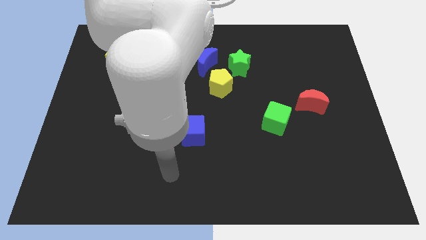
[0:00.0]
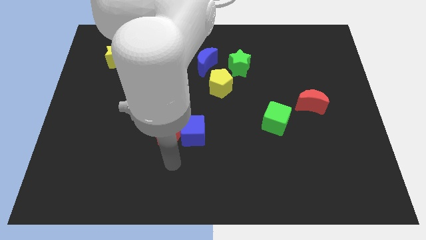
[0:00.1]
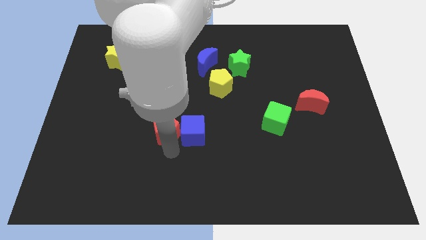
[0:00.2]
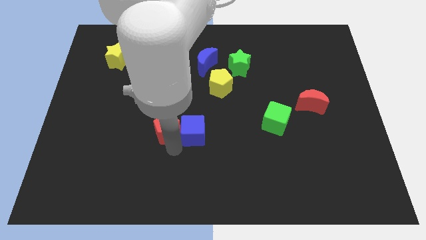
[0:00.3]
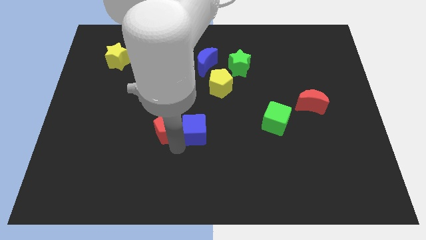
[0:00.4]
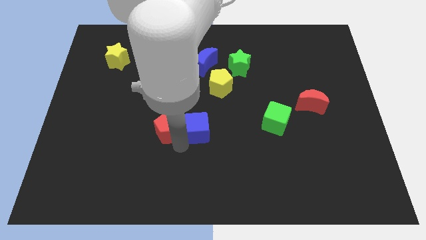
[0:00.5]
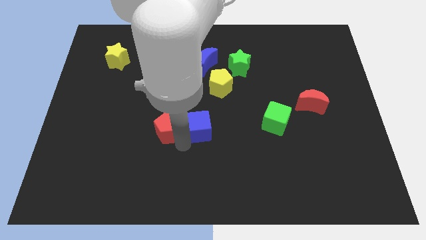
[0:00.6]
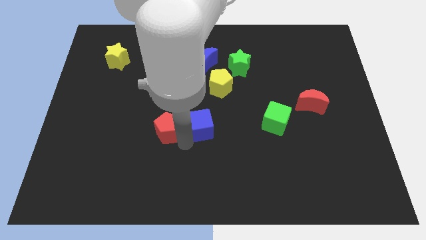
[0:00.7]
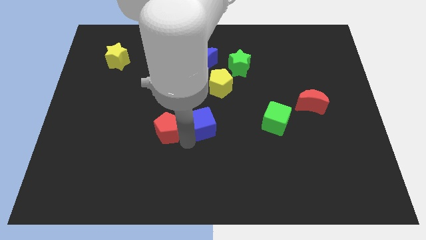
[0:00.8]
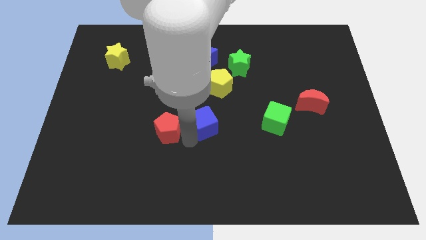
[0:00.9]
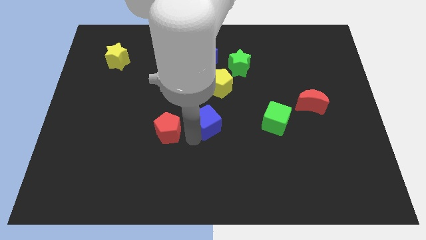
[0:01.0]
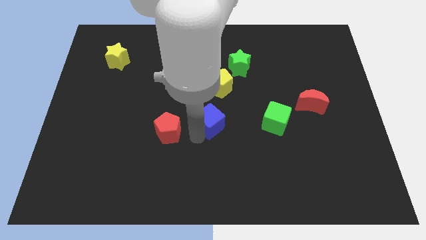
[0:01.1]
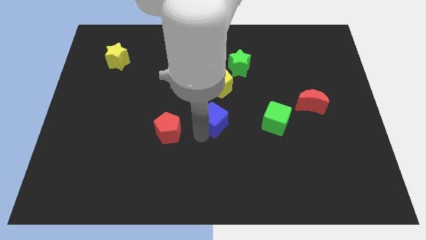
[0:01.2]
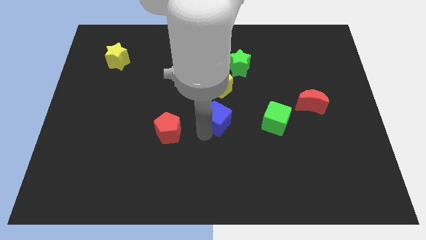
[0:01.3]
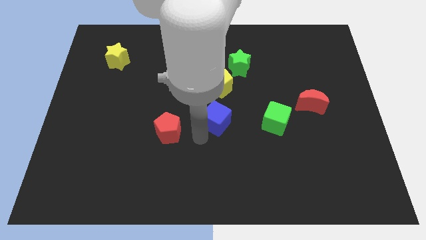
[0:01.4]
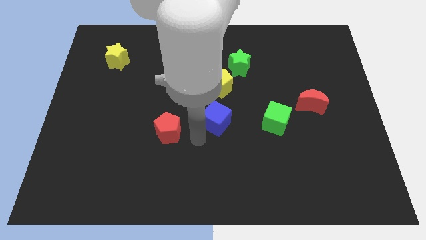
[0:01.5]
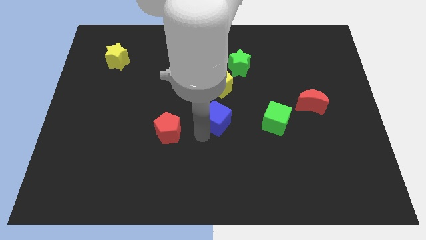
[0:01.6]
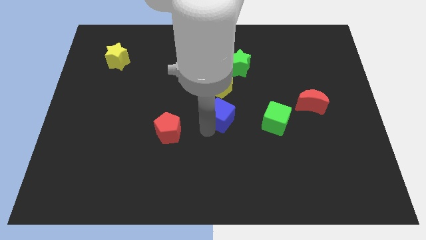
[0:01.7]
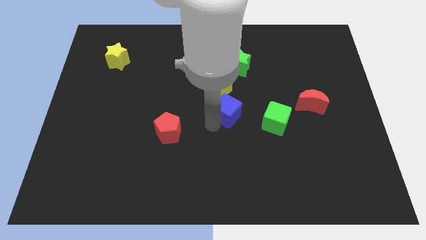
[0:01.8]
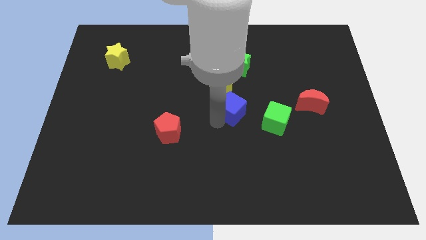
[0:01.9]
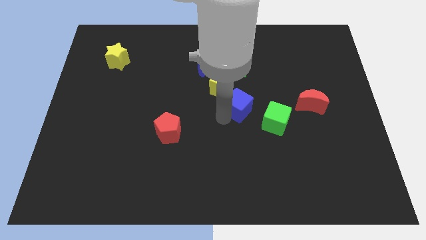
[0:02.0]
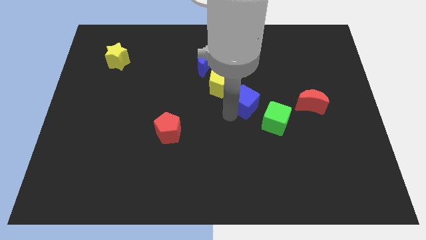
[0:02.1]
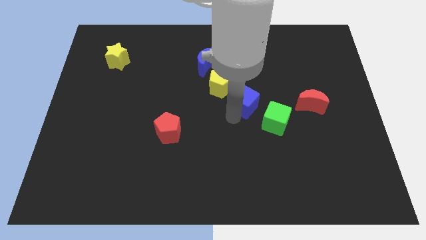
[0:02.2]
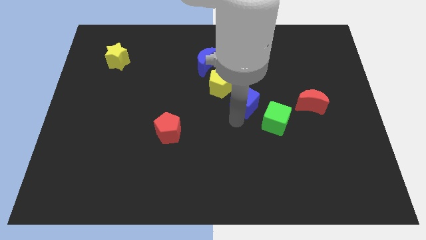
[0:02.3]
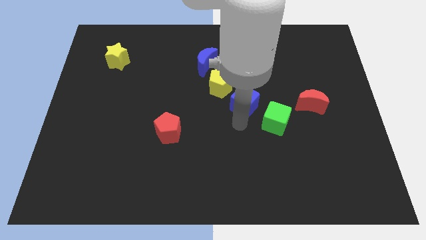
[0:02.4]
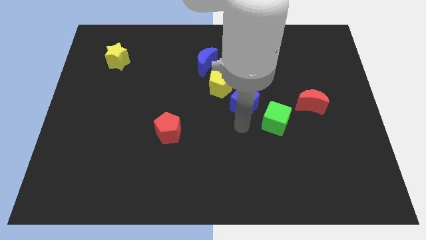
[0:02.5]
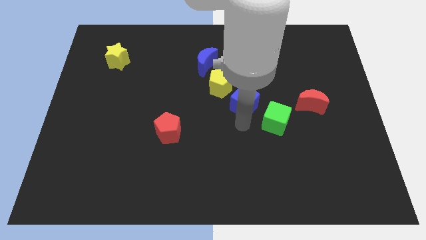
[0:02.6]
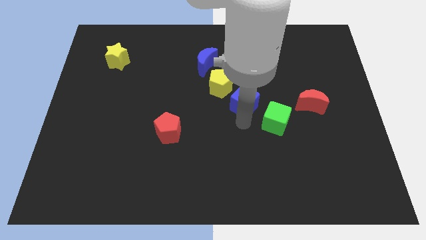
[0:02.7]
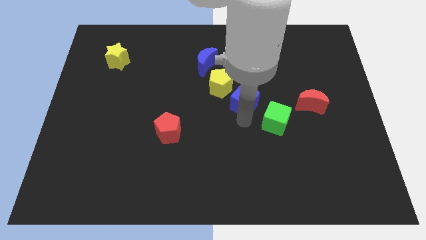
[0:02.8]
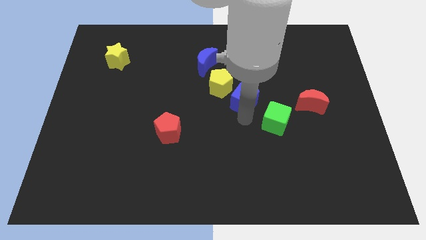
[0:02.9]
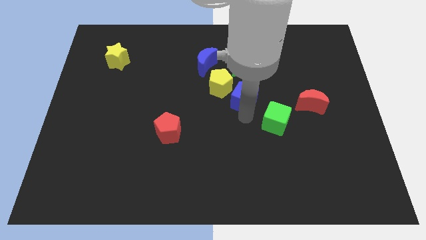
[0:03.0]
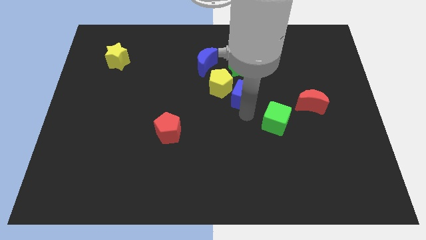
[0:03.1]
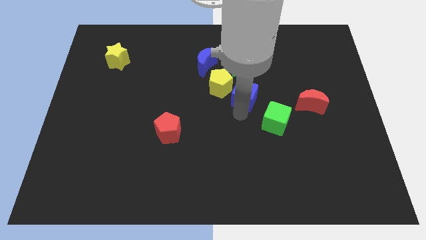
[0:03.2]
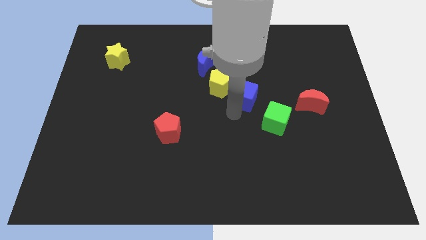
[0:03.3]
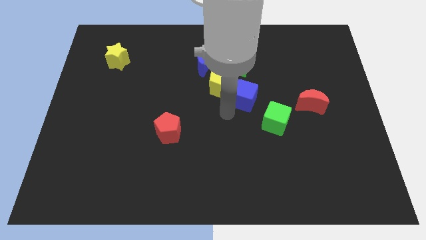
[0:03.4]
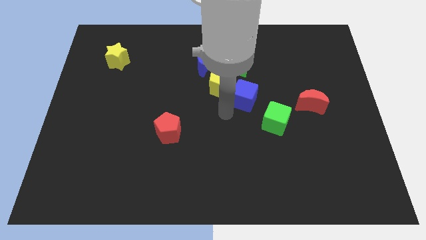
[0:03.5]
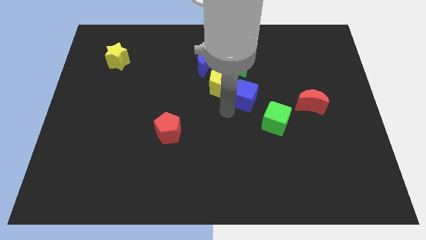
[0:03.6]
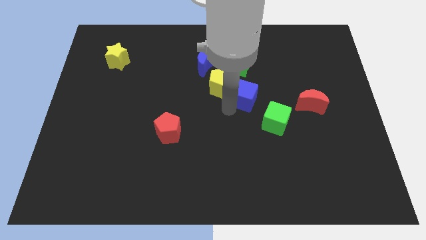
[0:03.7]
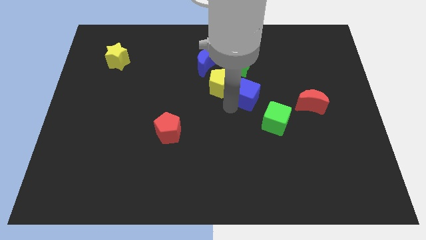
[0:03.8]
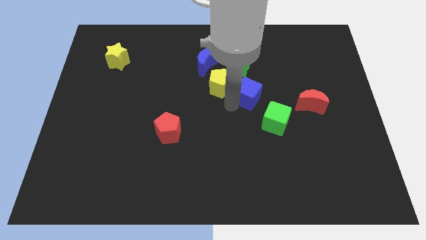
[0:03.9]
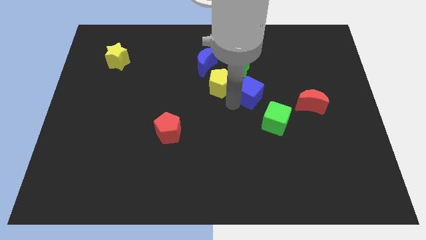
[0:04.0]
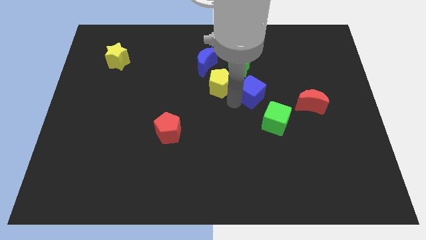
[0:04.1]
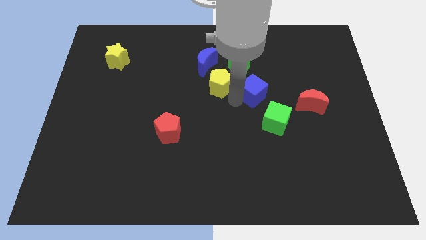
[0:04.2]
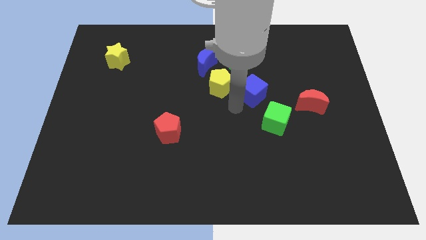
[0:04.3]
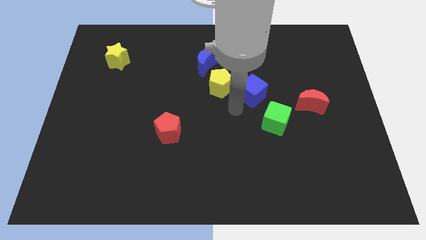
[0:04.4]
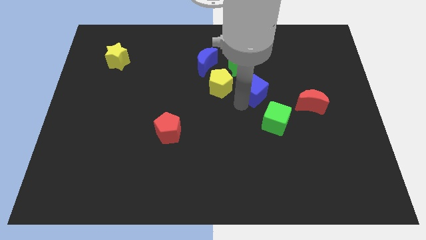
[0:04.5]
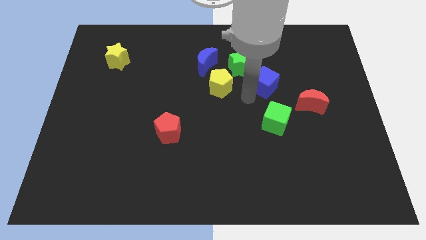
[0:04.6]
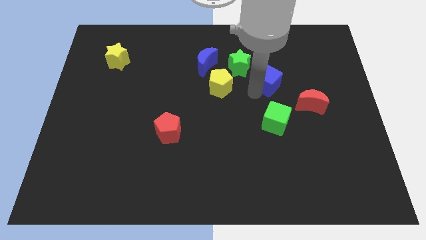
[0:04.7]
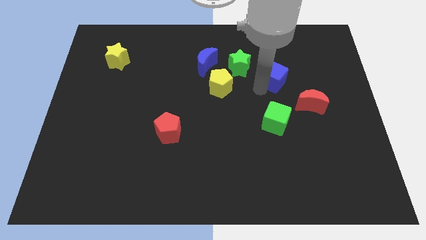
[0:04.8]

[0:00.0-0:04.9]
push the blue cube to the right of the green star

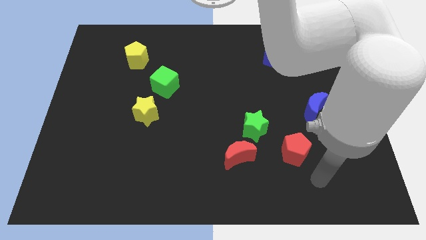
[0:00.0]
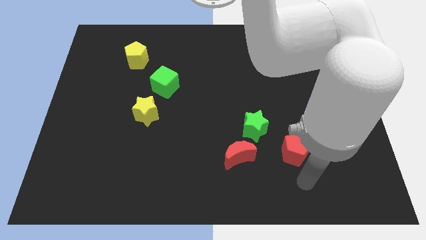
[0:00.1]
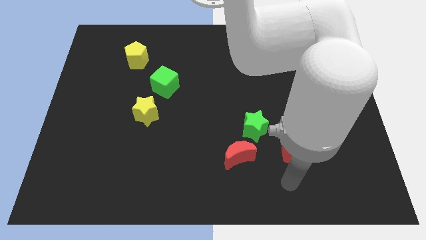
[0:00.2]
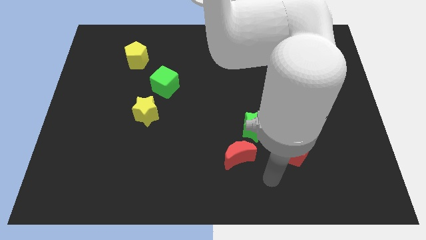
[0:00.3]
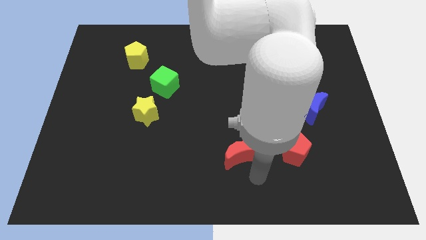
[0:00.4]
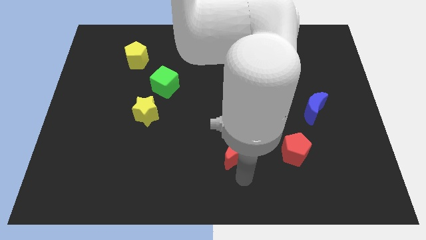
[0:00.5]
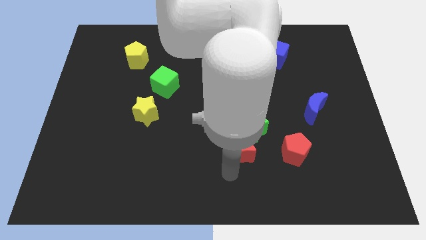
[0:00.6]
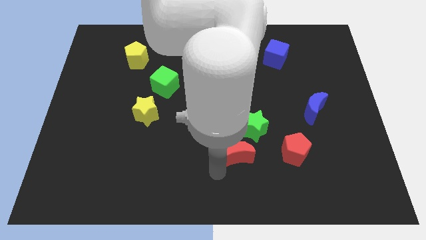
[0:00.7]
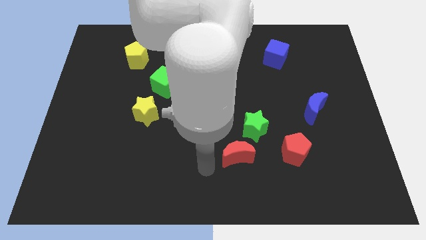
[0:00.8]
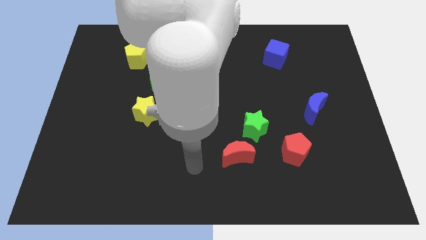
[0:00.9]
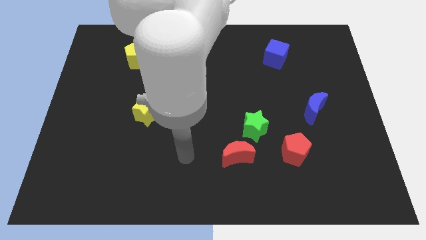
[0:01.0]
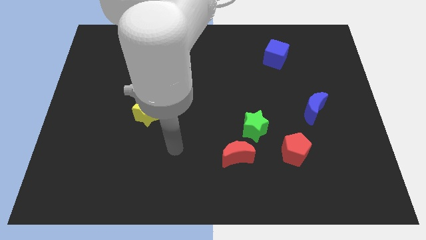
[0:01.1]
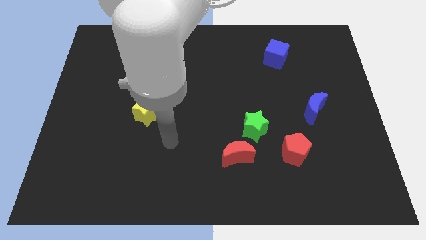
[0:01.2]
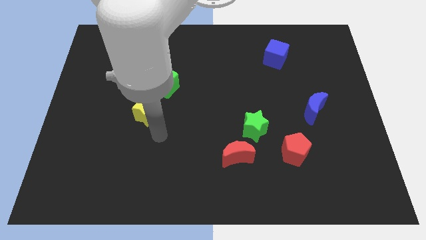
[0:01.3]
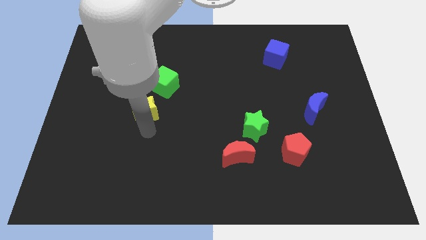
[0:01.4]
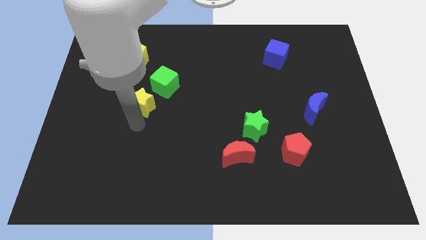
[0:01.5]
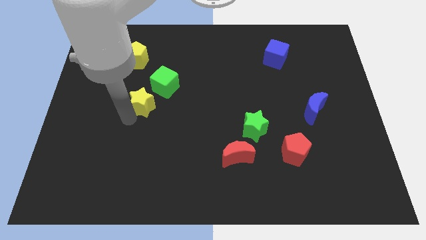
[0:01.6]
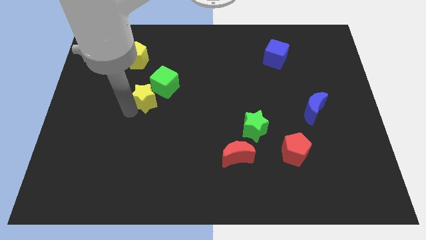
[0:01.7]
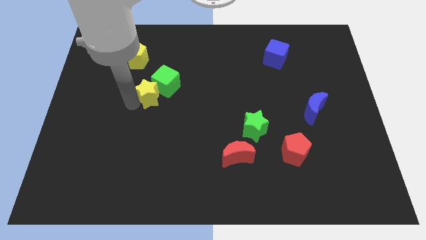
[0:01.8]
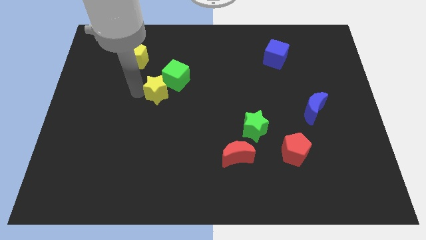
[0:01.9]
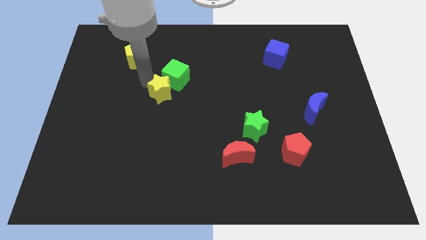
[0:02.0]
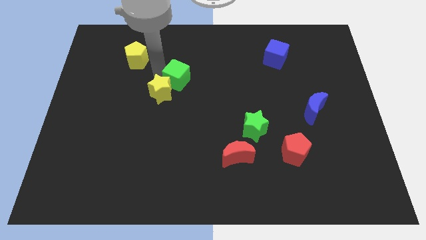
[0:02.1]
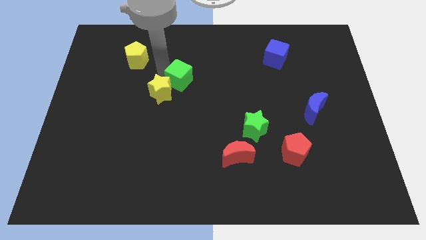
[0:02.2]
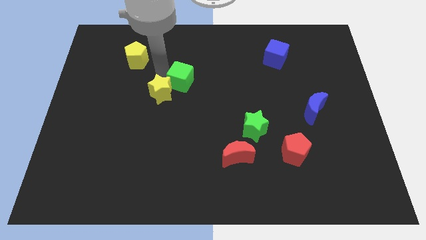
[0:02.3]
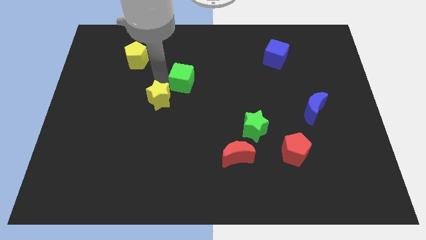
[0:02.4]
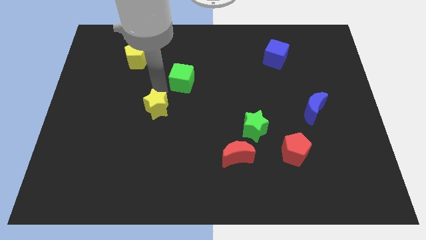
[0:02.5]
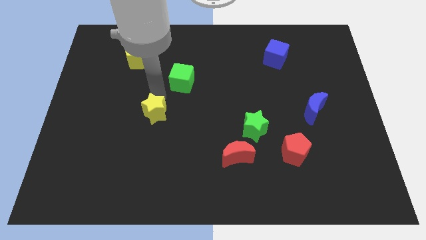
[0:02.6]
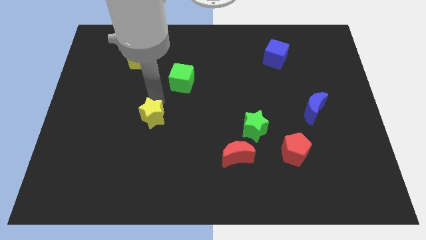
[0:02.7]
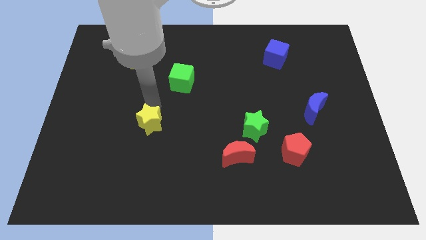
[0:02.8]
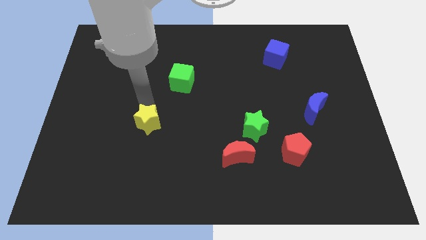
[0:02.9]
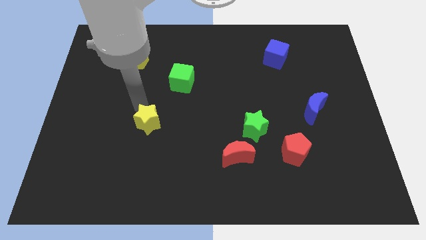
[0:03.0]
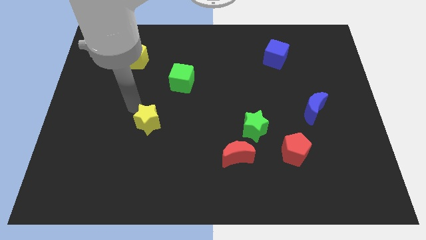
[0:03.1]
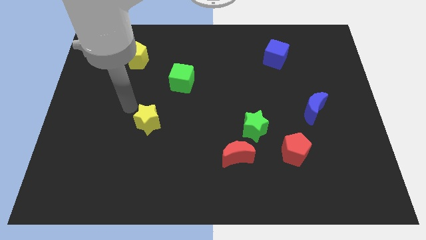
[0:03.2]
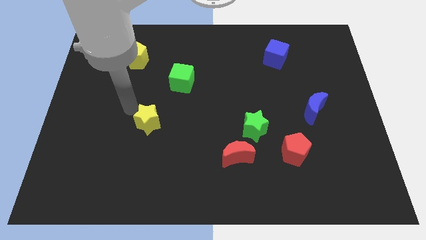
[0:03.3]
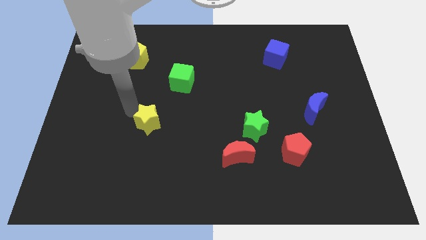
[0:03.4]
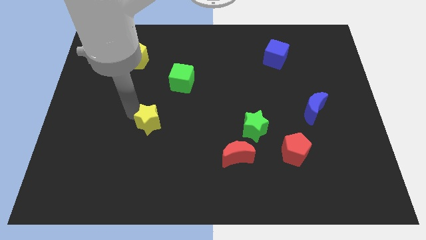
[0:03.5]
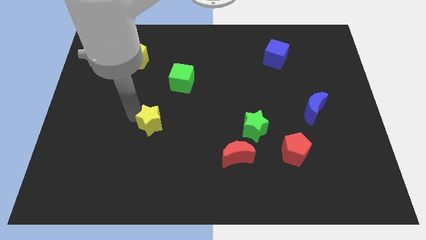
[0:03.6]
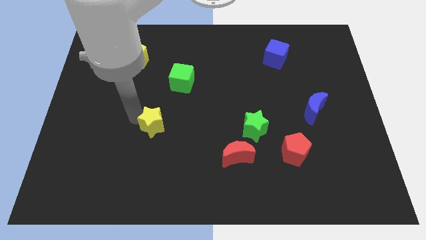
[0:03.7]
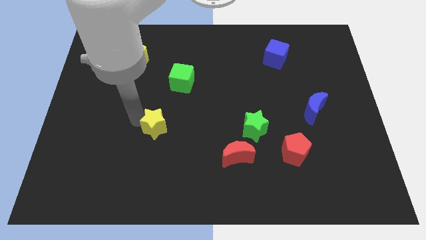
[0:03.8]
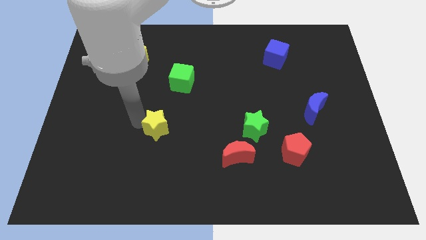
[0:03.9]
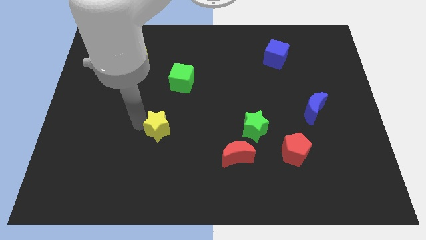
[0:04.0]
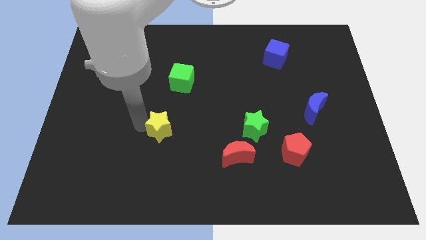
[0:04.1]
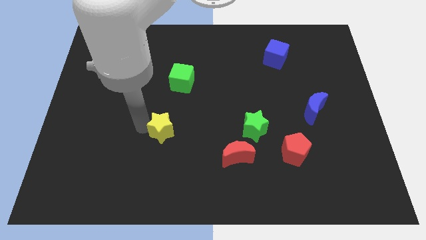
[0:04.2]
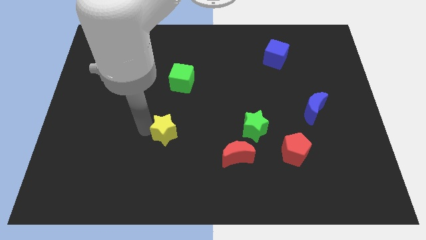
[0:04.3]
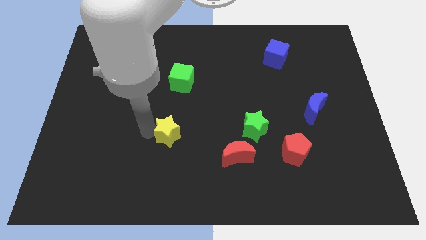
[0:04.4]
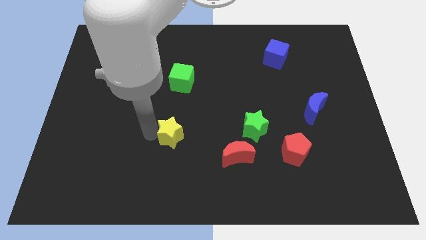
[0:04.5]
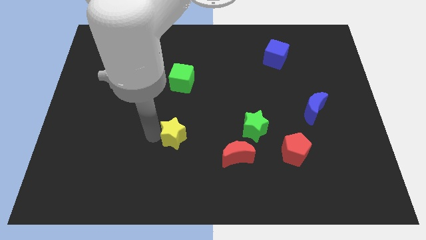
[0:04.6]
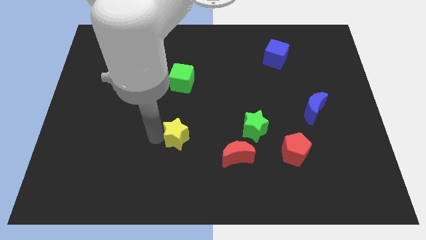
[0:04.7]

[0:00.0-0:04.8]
put the yellow star to the left side of the red moon
